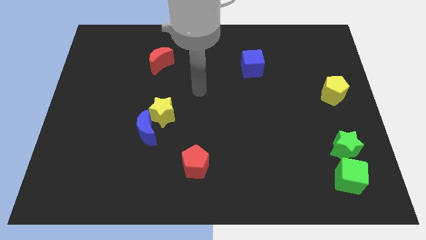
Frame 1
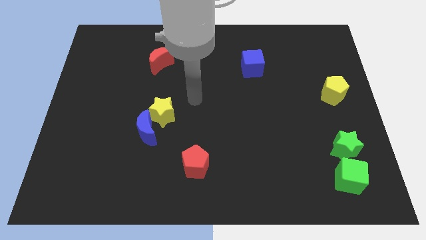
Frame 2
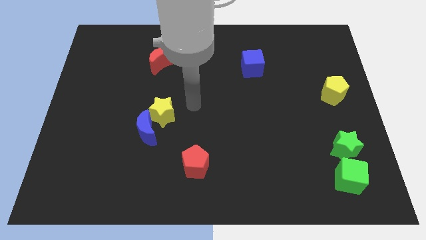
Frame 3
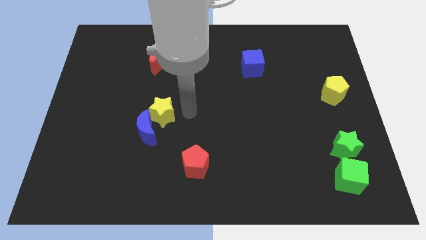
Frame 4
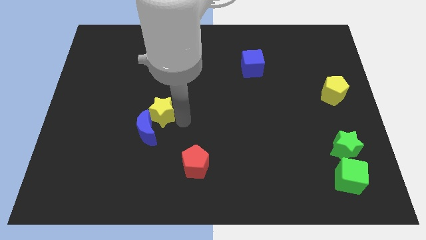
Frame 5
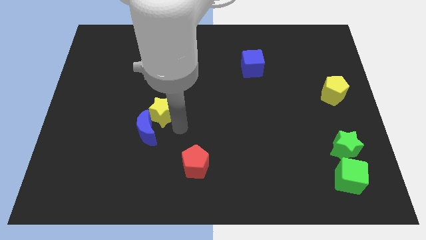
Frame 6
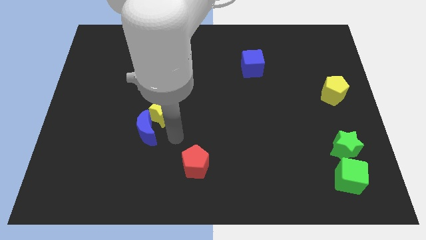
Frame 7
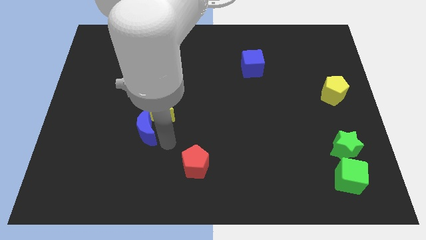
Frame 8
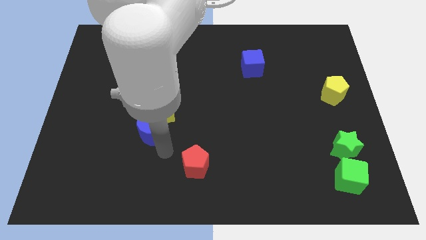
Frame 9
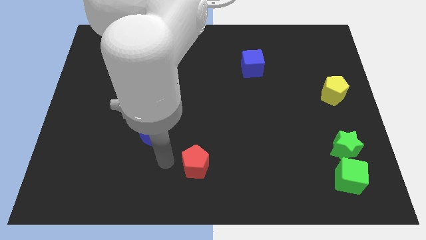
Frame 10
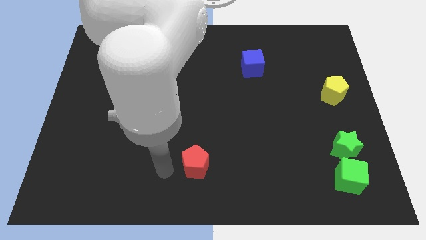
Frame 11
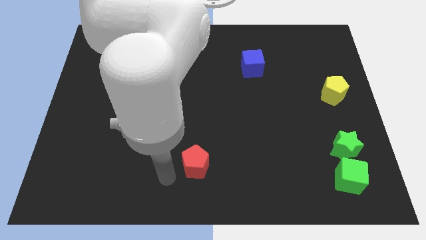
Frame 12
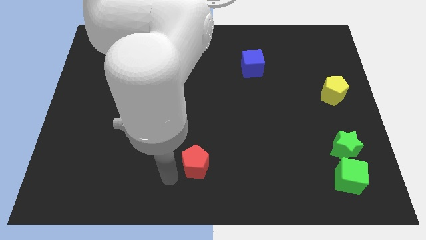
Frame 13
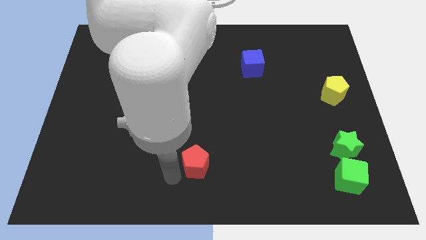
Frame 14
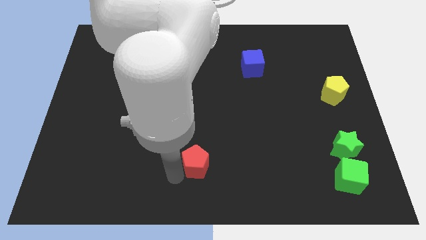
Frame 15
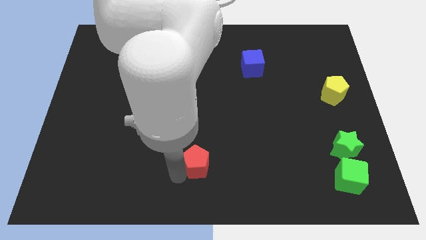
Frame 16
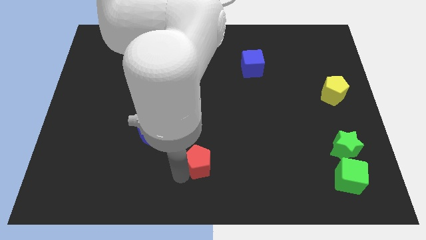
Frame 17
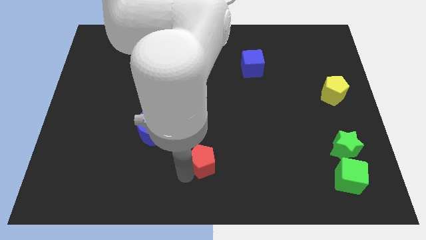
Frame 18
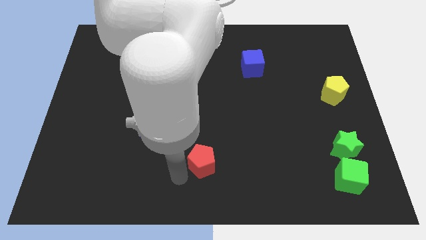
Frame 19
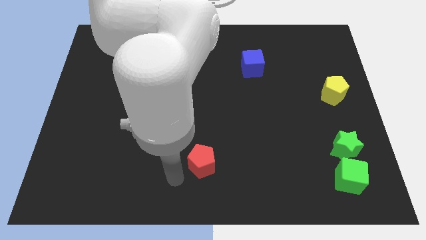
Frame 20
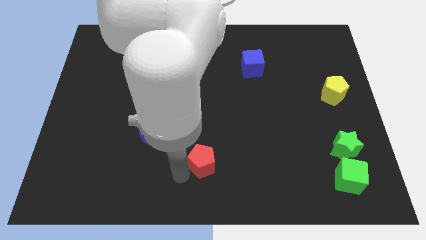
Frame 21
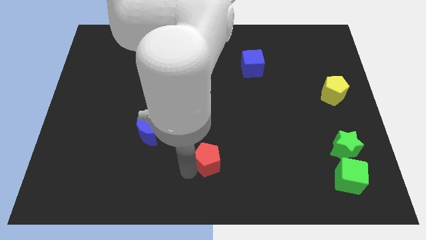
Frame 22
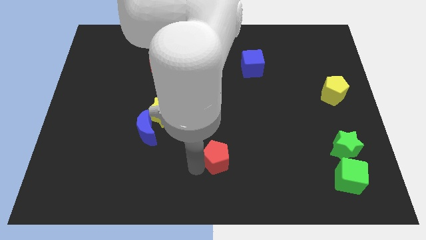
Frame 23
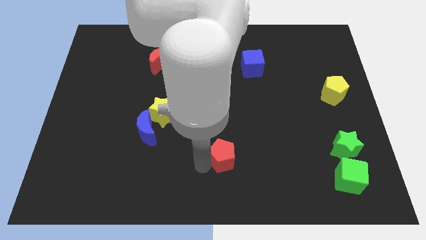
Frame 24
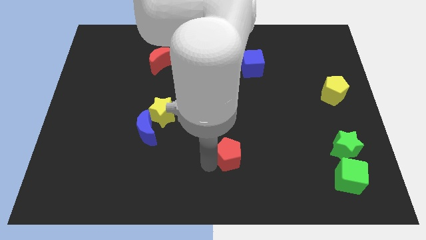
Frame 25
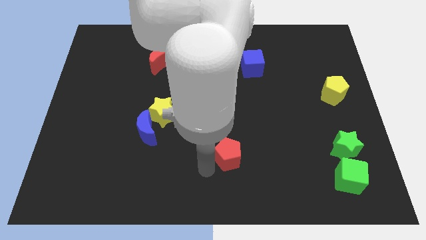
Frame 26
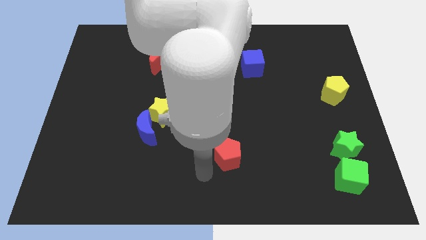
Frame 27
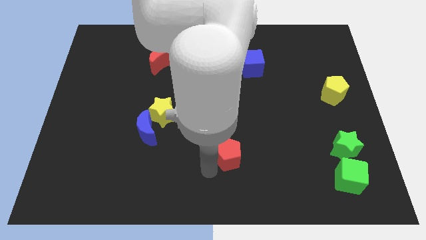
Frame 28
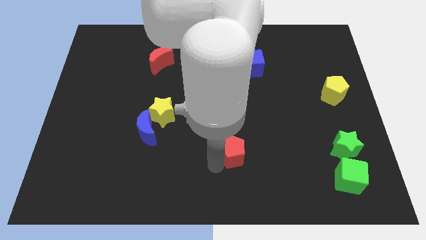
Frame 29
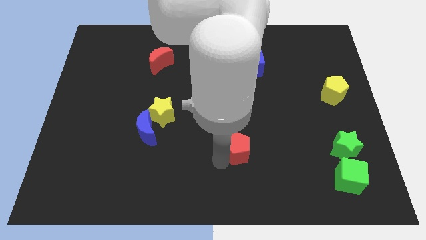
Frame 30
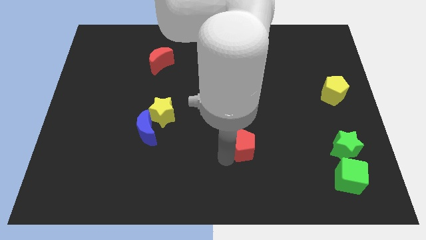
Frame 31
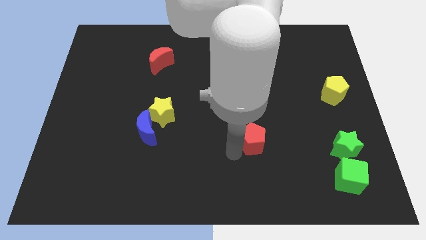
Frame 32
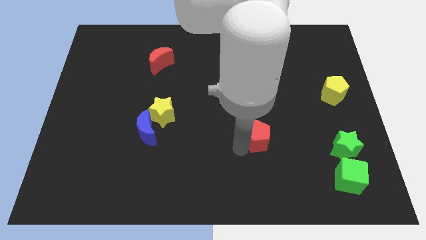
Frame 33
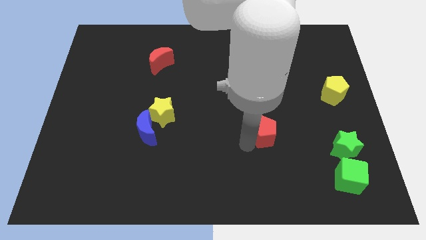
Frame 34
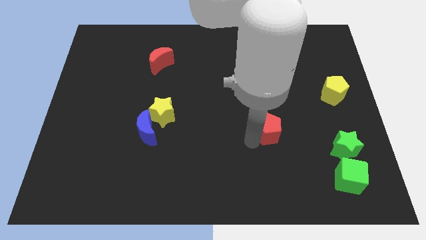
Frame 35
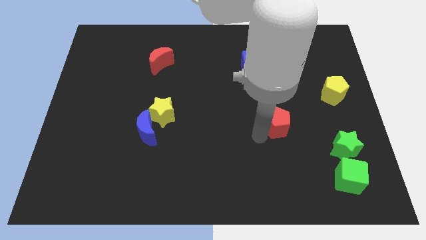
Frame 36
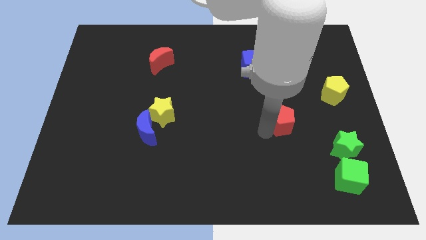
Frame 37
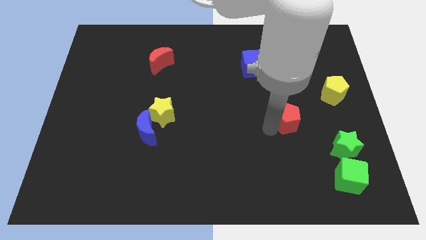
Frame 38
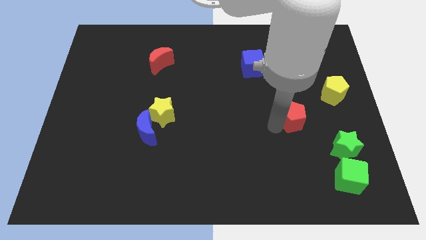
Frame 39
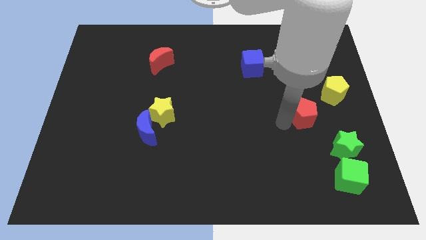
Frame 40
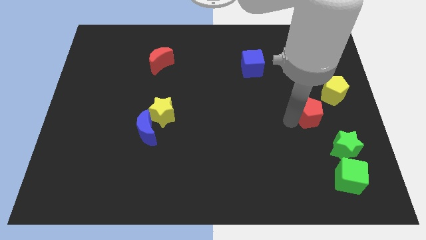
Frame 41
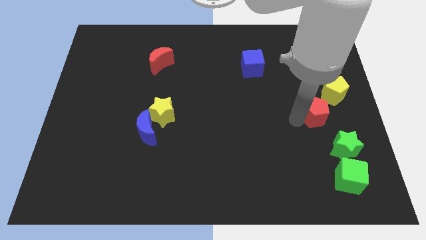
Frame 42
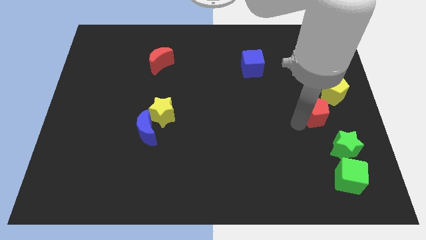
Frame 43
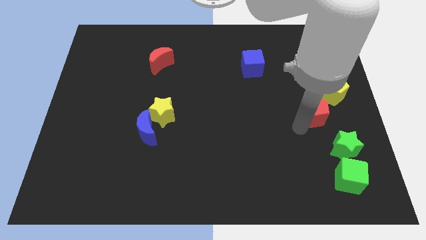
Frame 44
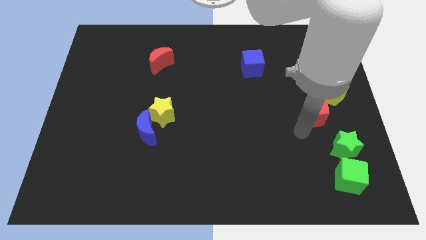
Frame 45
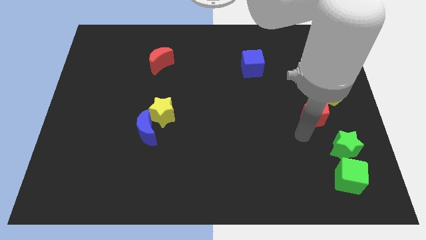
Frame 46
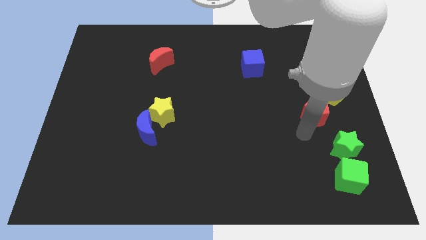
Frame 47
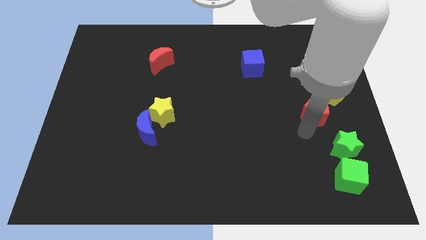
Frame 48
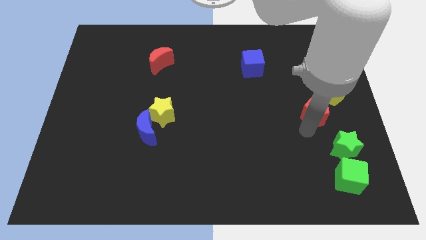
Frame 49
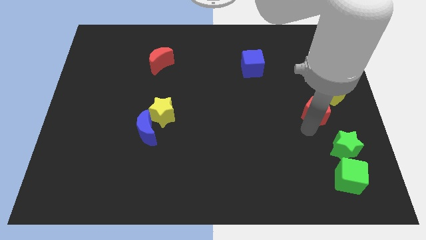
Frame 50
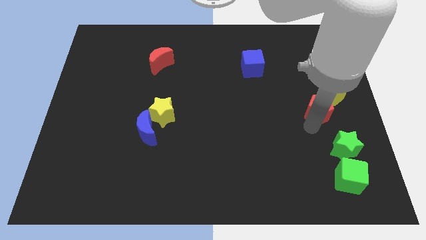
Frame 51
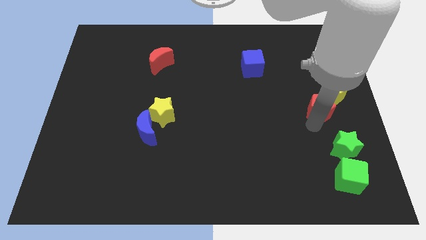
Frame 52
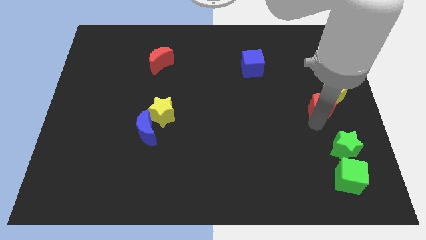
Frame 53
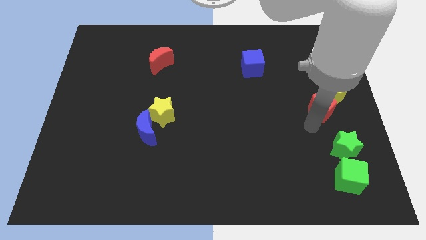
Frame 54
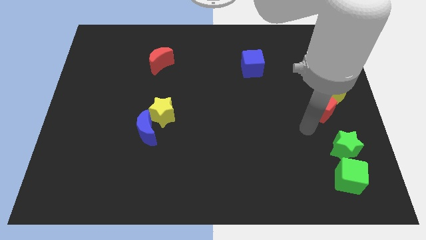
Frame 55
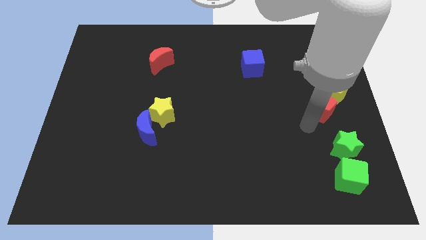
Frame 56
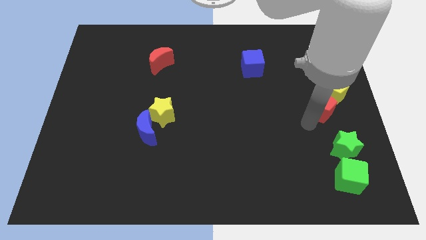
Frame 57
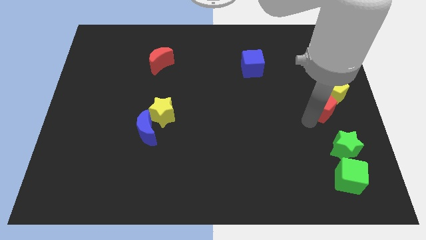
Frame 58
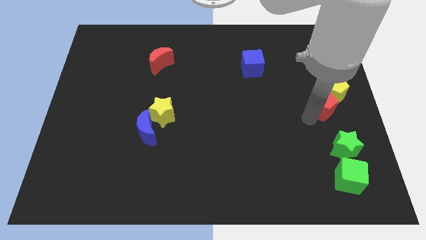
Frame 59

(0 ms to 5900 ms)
put the red pentagon to the yellow pentagon
